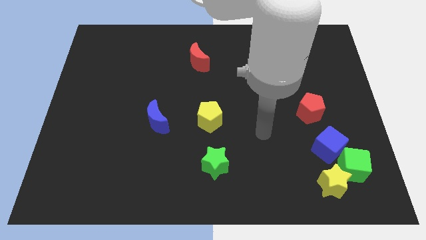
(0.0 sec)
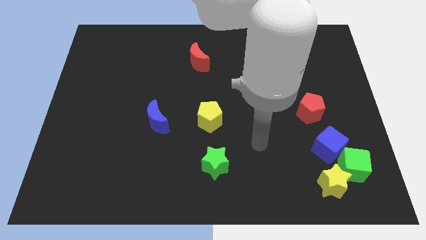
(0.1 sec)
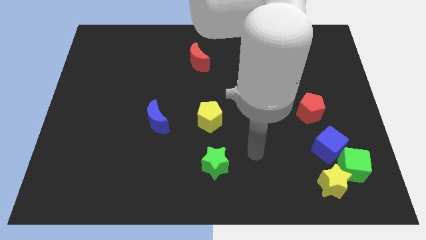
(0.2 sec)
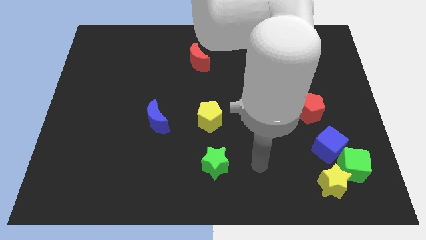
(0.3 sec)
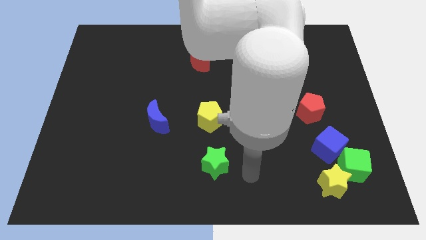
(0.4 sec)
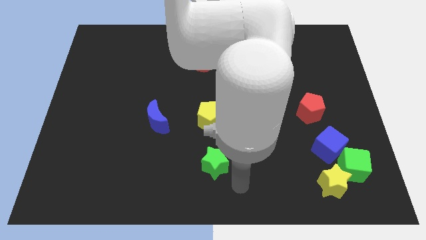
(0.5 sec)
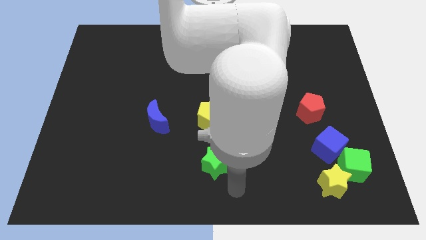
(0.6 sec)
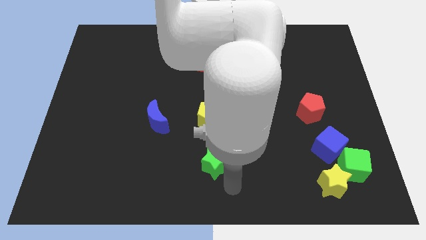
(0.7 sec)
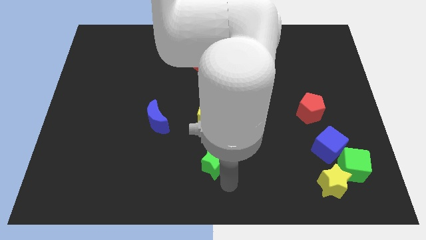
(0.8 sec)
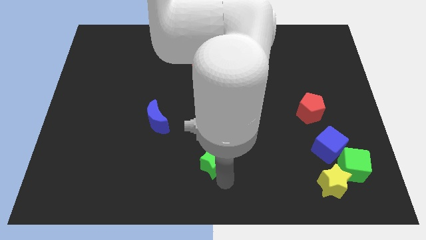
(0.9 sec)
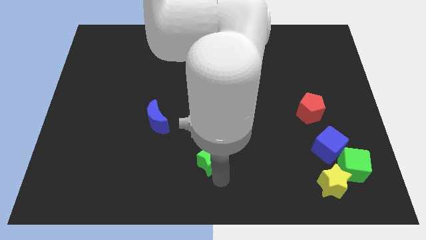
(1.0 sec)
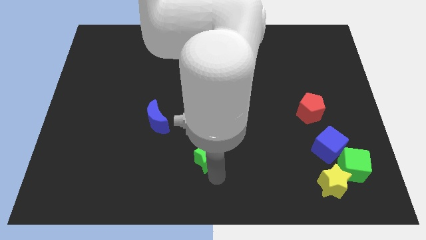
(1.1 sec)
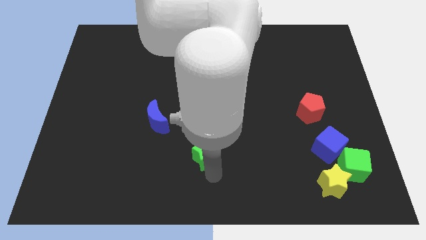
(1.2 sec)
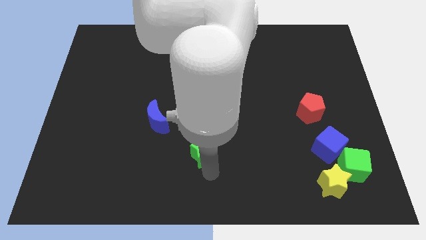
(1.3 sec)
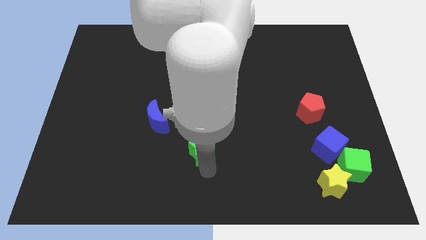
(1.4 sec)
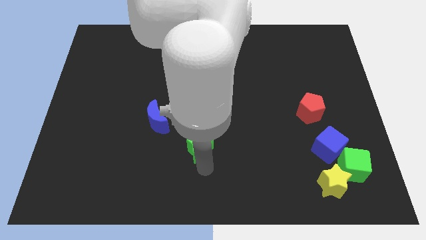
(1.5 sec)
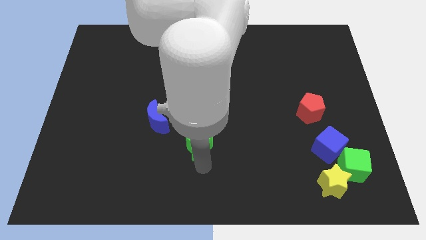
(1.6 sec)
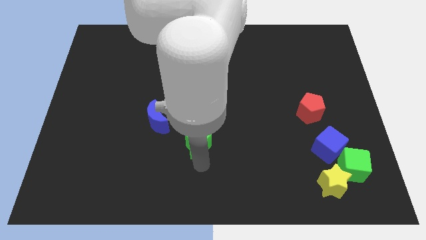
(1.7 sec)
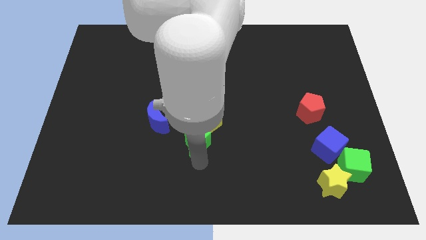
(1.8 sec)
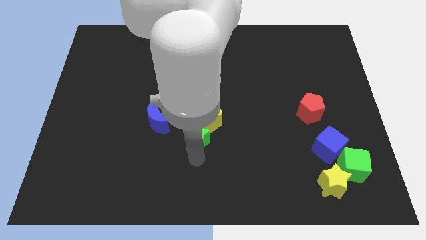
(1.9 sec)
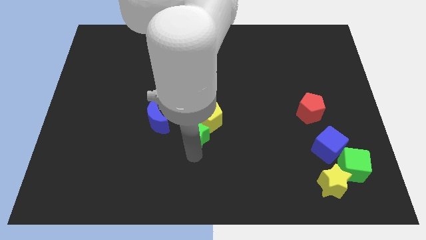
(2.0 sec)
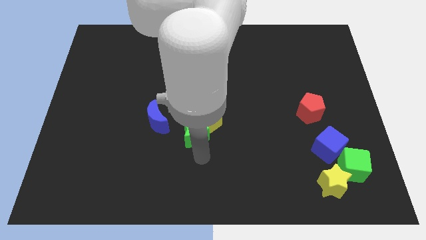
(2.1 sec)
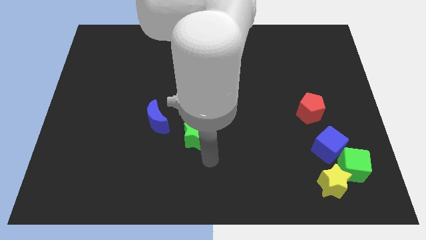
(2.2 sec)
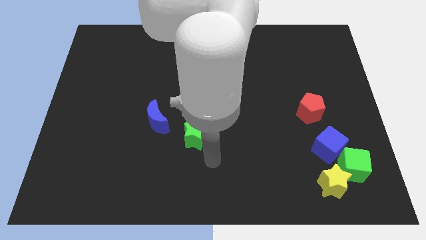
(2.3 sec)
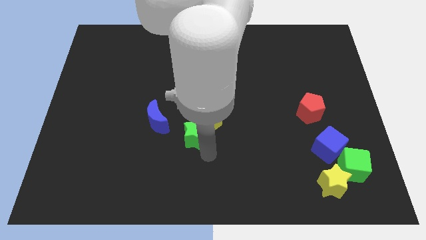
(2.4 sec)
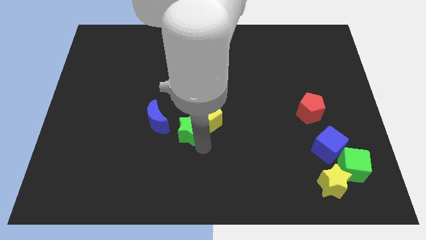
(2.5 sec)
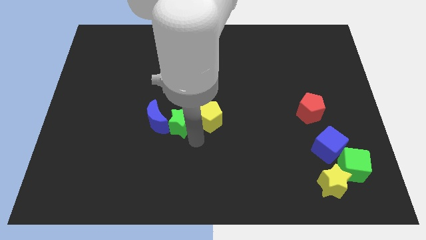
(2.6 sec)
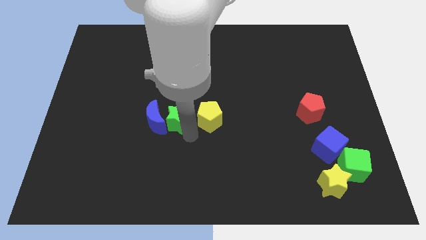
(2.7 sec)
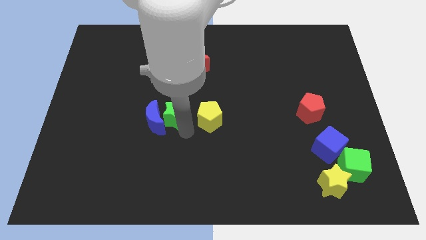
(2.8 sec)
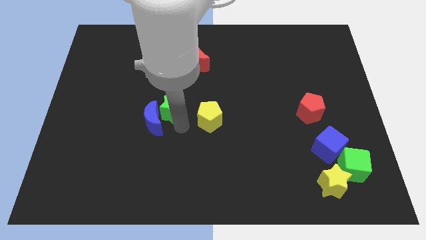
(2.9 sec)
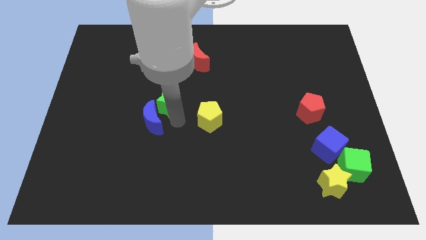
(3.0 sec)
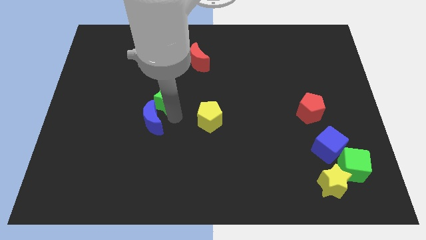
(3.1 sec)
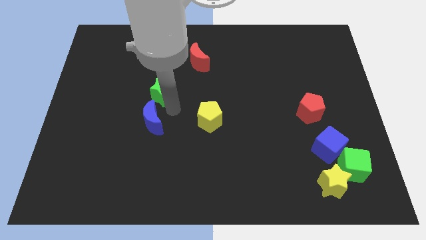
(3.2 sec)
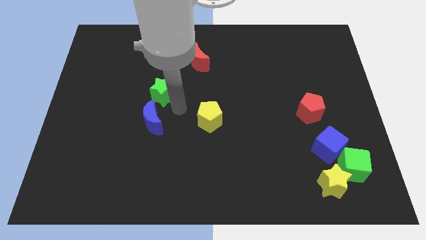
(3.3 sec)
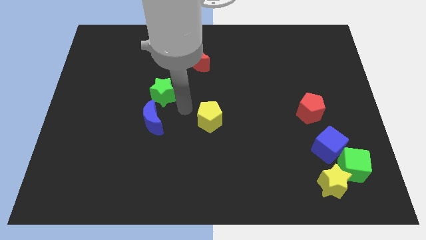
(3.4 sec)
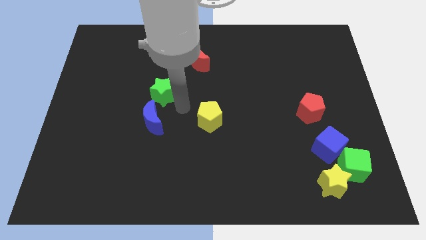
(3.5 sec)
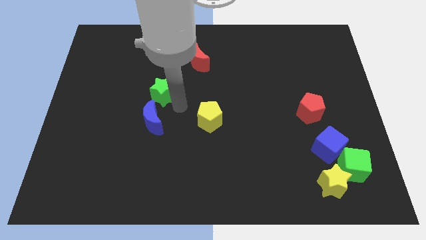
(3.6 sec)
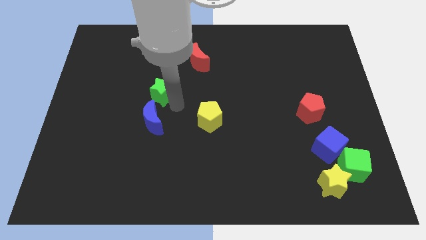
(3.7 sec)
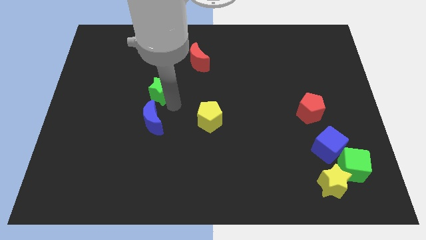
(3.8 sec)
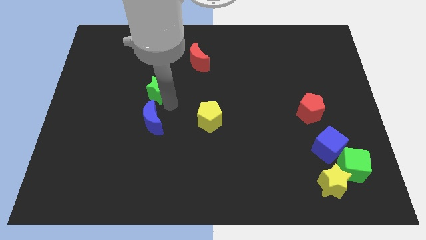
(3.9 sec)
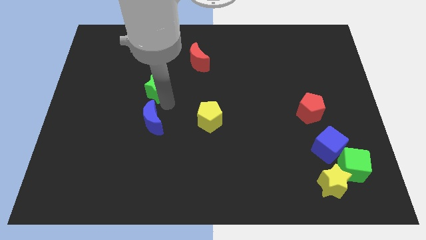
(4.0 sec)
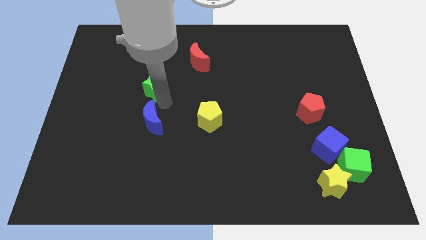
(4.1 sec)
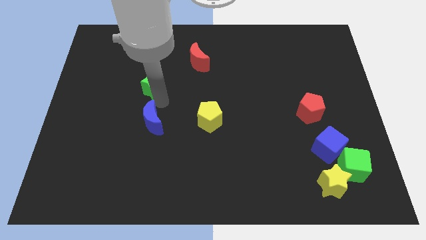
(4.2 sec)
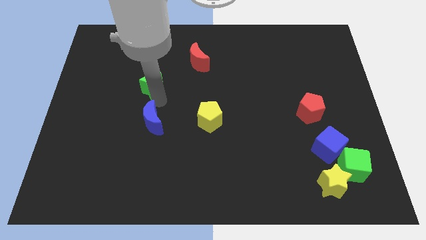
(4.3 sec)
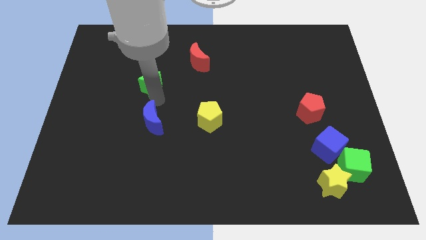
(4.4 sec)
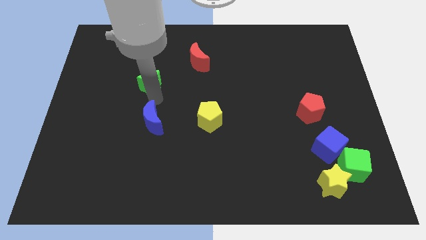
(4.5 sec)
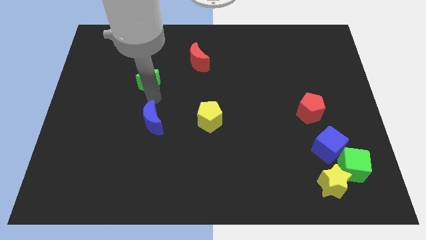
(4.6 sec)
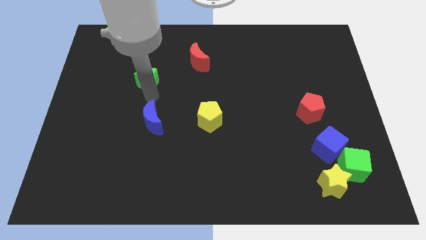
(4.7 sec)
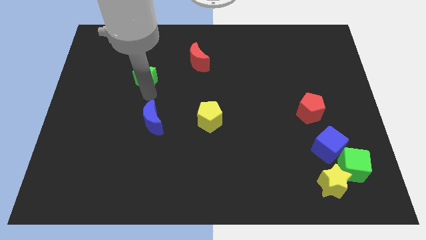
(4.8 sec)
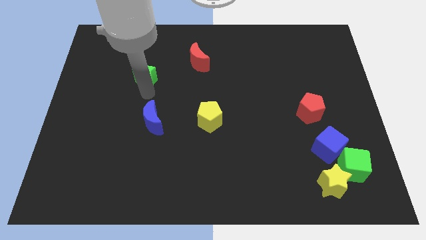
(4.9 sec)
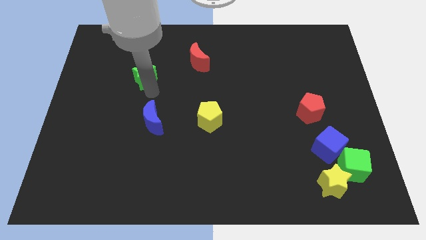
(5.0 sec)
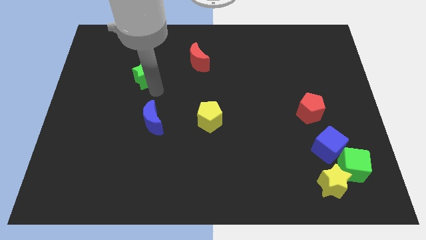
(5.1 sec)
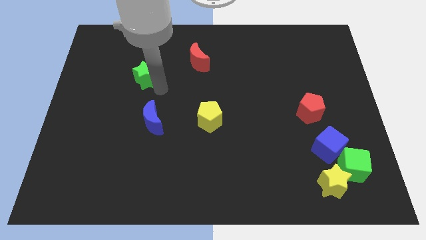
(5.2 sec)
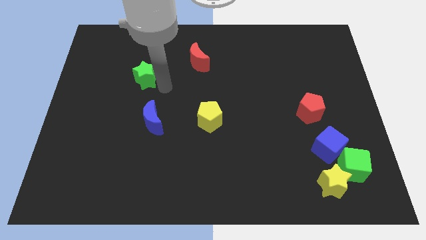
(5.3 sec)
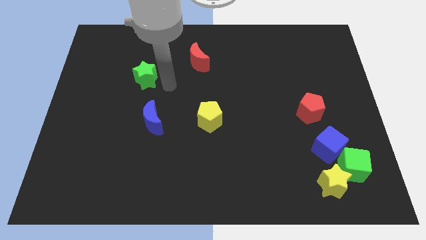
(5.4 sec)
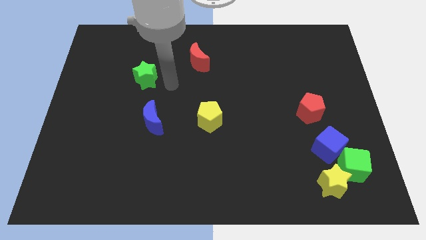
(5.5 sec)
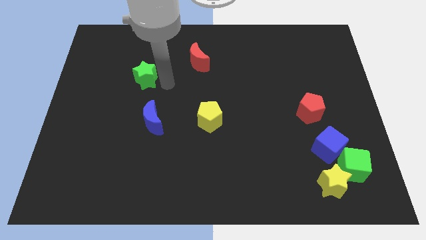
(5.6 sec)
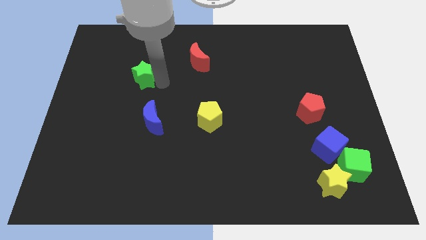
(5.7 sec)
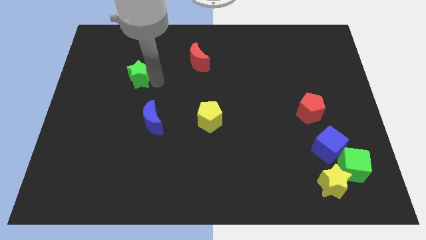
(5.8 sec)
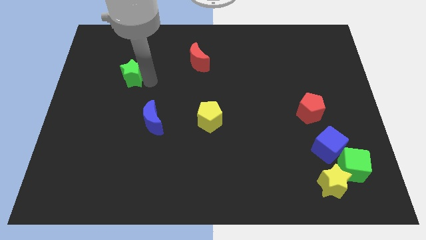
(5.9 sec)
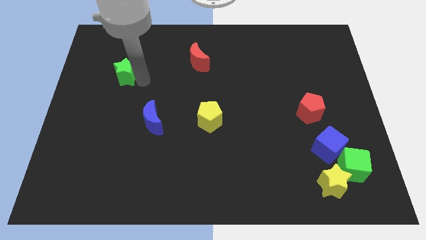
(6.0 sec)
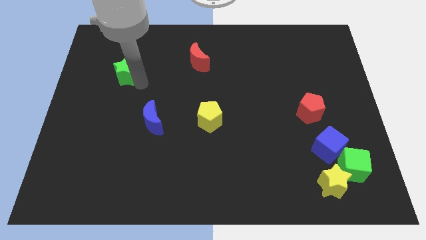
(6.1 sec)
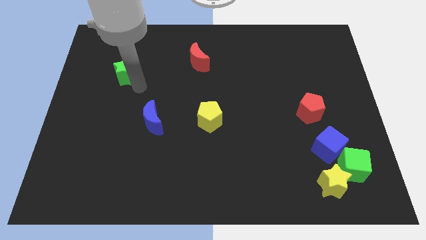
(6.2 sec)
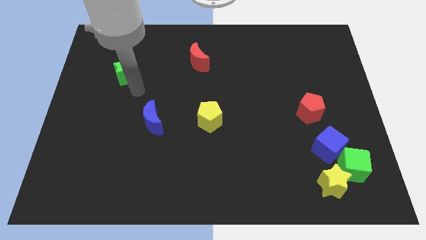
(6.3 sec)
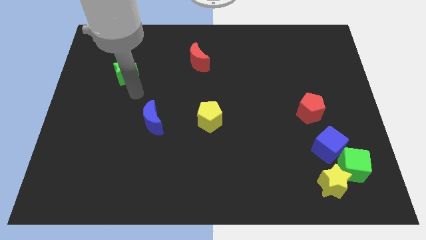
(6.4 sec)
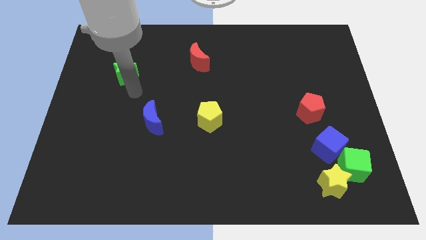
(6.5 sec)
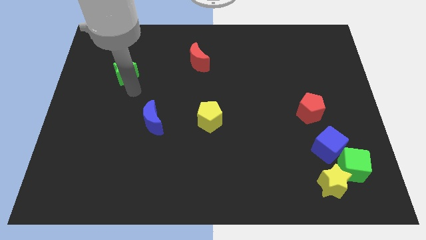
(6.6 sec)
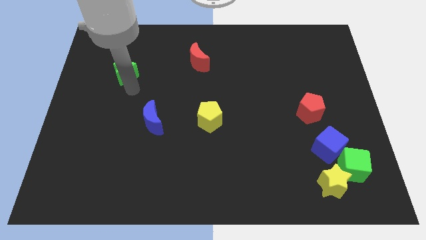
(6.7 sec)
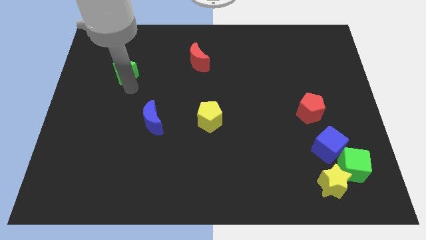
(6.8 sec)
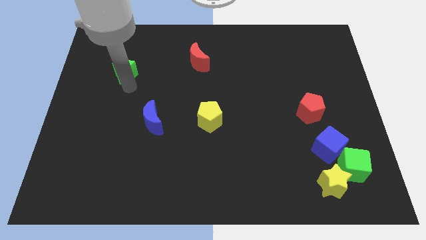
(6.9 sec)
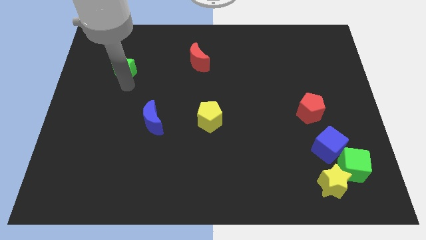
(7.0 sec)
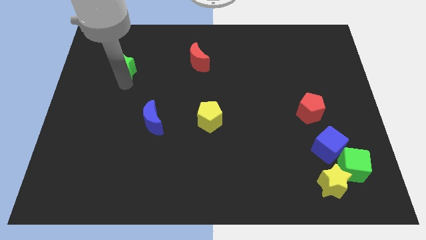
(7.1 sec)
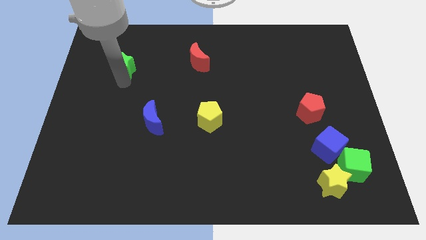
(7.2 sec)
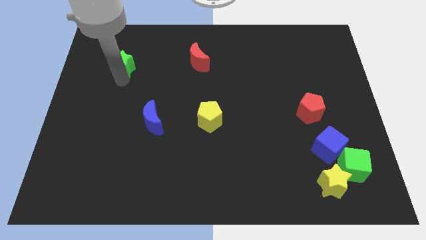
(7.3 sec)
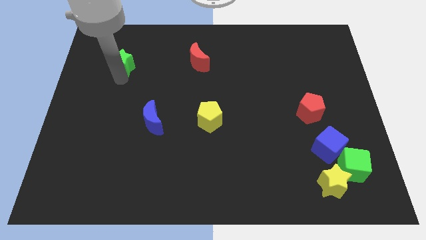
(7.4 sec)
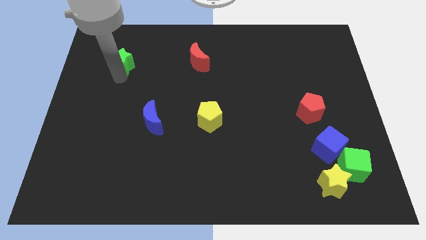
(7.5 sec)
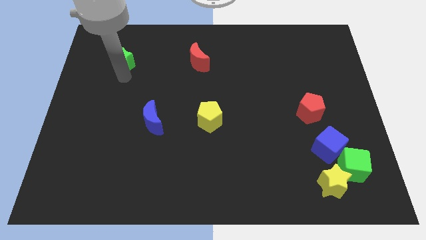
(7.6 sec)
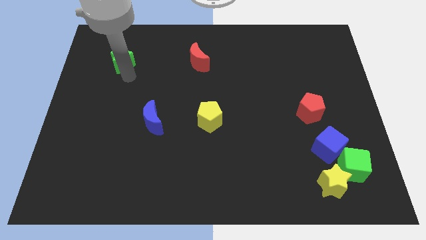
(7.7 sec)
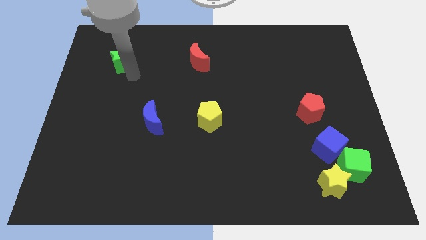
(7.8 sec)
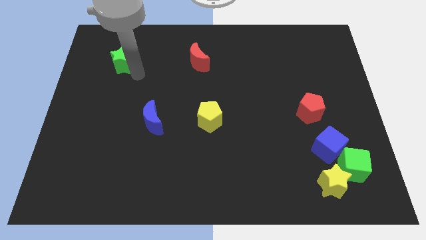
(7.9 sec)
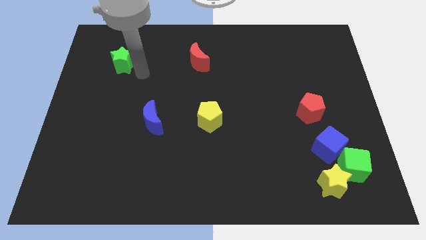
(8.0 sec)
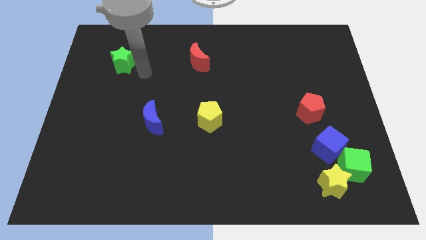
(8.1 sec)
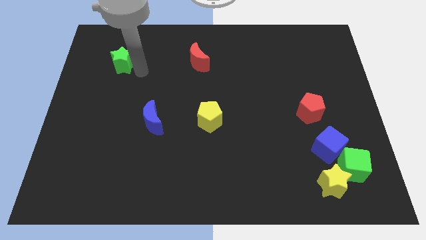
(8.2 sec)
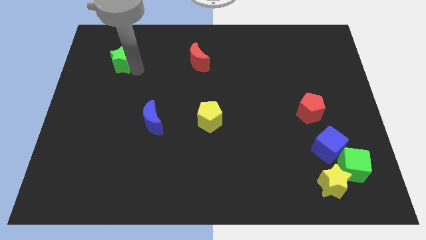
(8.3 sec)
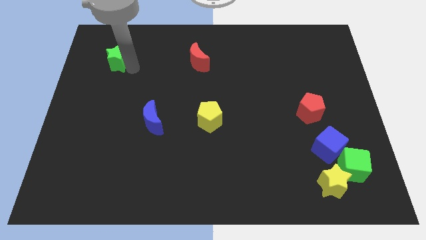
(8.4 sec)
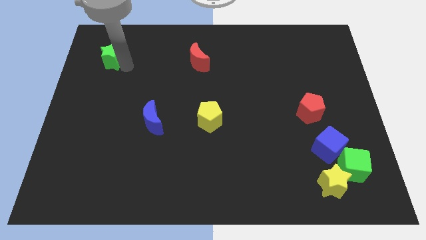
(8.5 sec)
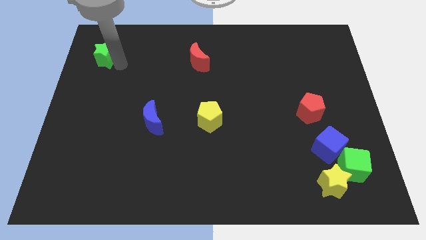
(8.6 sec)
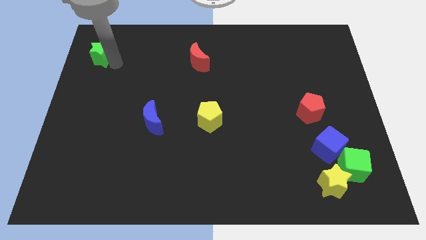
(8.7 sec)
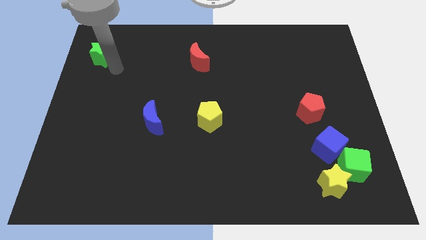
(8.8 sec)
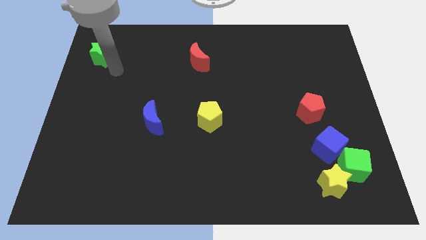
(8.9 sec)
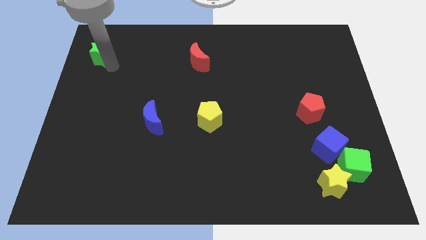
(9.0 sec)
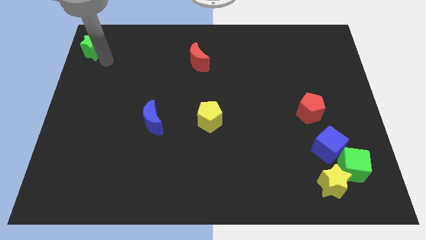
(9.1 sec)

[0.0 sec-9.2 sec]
move the green star to the top left
